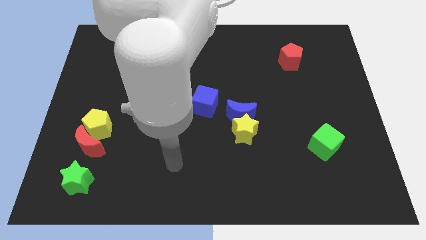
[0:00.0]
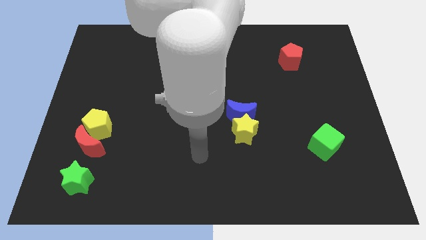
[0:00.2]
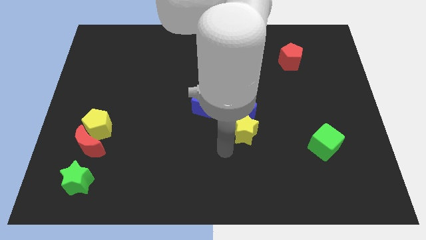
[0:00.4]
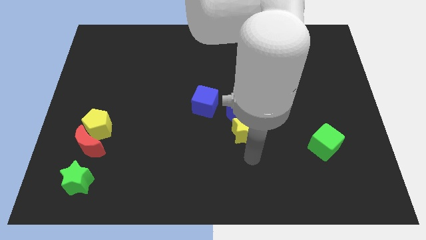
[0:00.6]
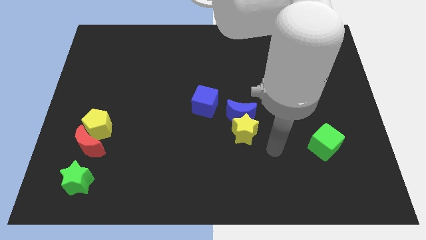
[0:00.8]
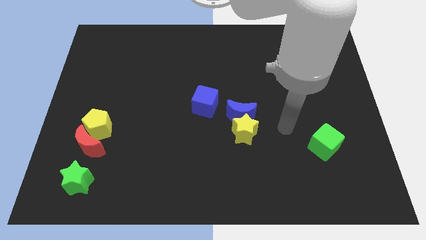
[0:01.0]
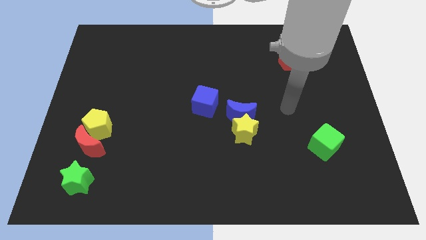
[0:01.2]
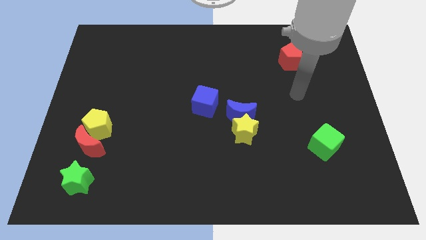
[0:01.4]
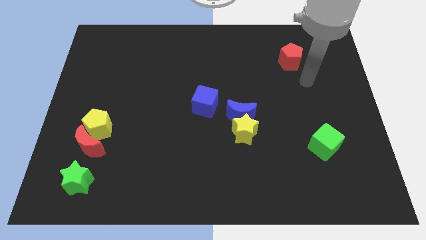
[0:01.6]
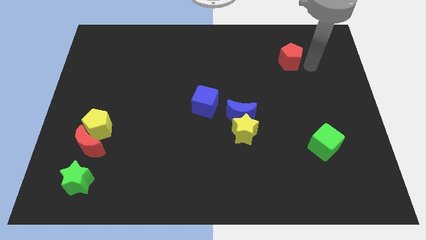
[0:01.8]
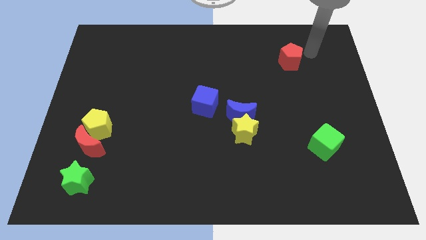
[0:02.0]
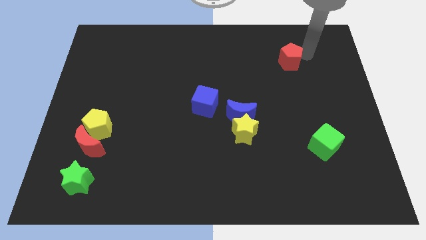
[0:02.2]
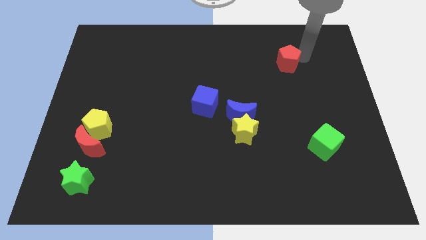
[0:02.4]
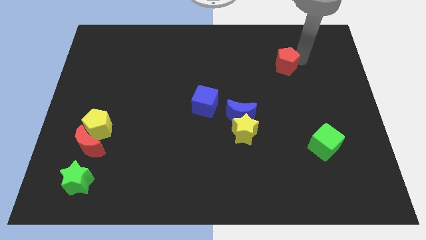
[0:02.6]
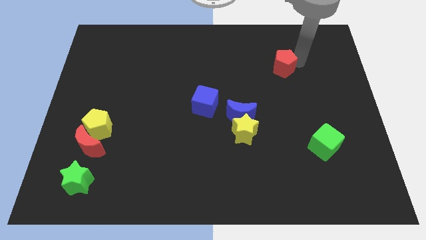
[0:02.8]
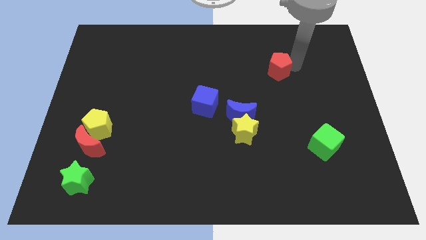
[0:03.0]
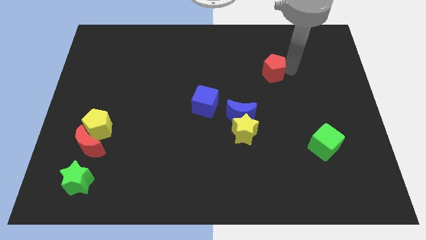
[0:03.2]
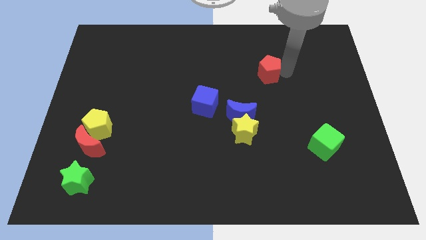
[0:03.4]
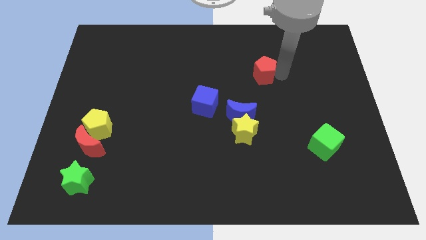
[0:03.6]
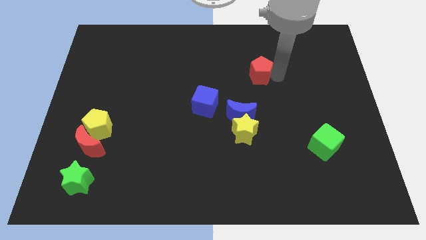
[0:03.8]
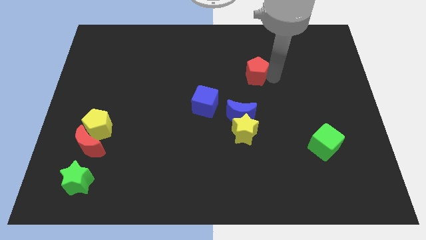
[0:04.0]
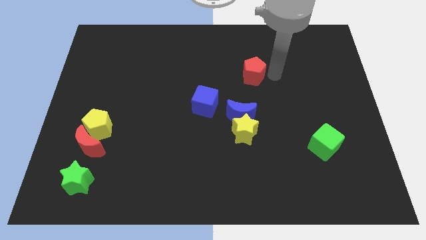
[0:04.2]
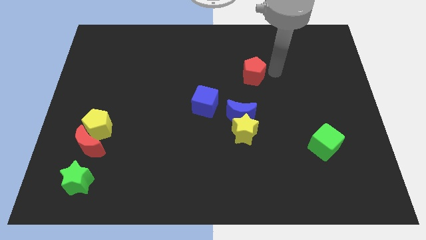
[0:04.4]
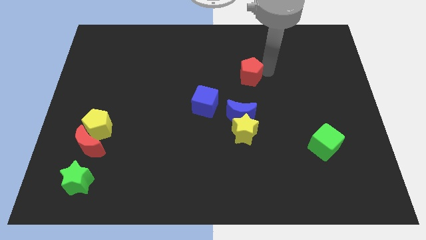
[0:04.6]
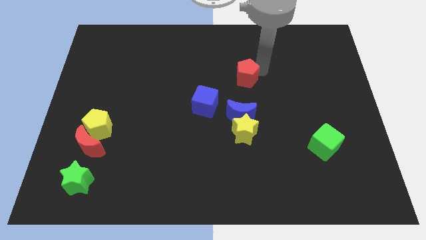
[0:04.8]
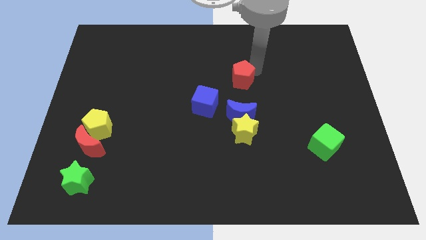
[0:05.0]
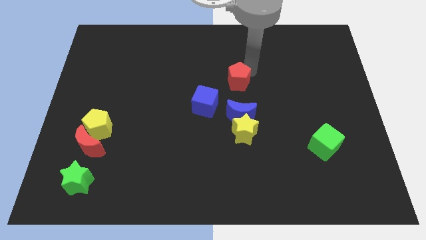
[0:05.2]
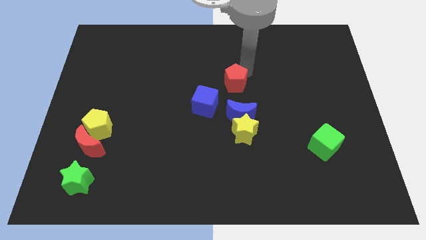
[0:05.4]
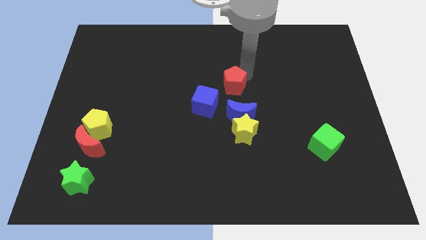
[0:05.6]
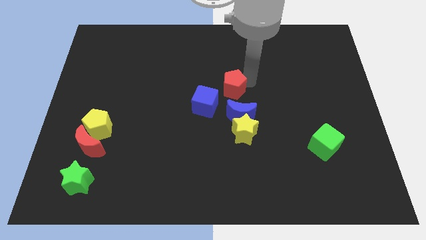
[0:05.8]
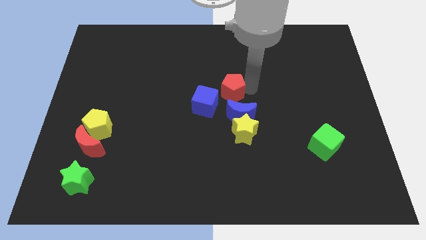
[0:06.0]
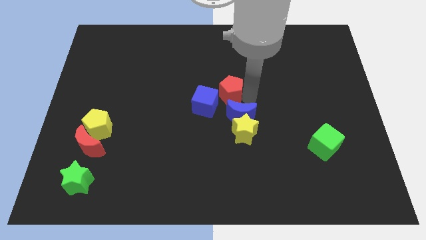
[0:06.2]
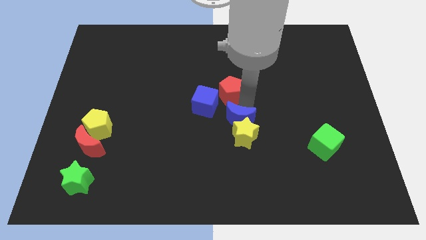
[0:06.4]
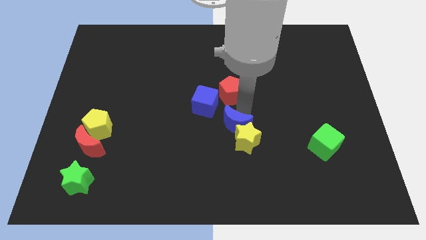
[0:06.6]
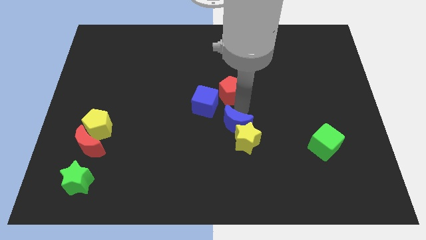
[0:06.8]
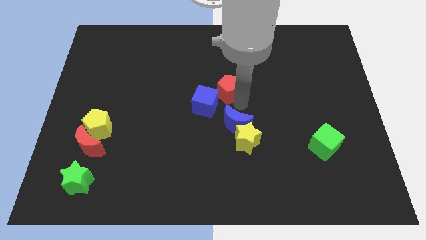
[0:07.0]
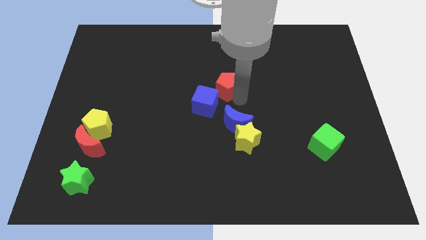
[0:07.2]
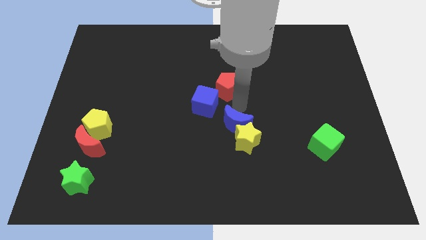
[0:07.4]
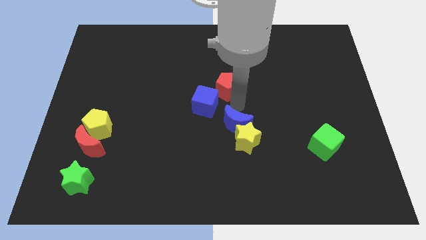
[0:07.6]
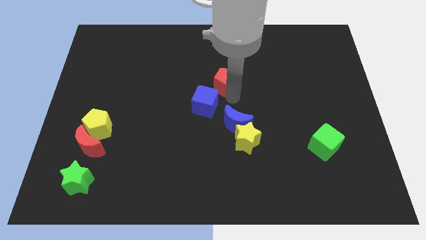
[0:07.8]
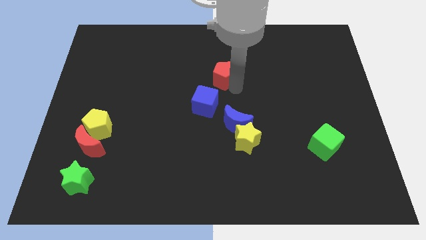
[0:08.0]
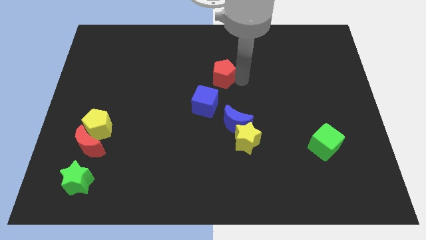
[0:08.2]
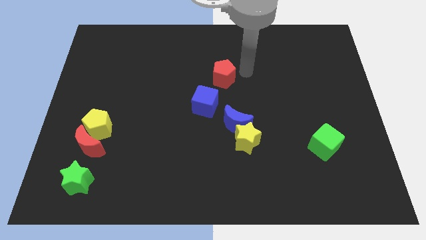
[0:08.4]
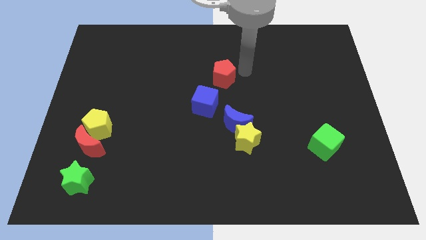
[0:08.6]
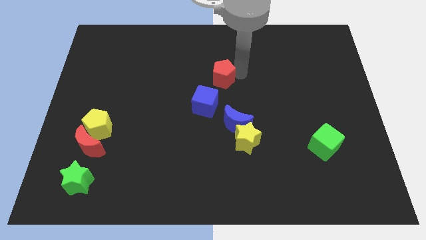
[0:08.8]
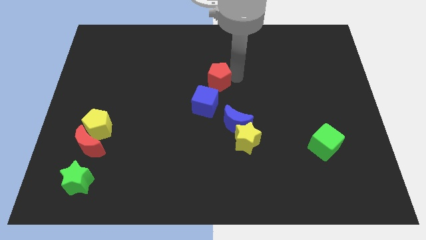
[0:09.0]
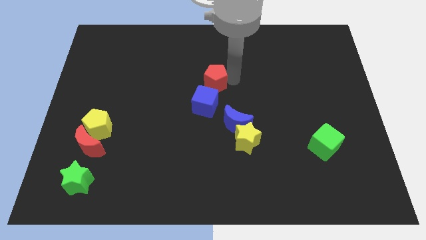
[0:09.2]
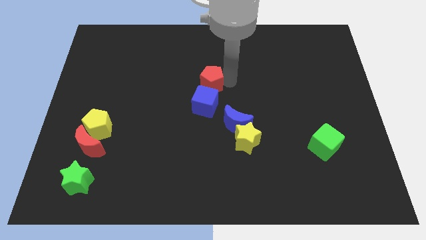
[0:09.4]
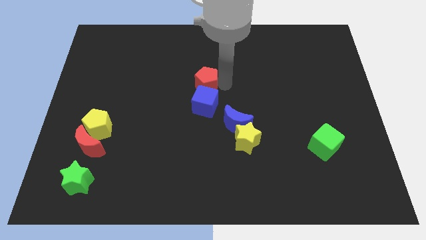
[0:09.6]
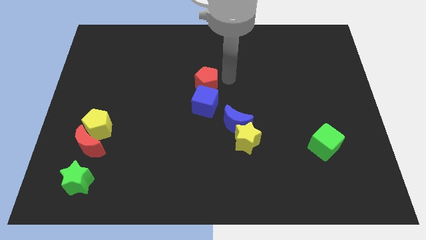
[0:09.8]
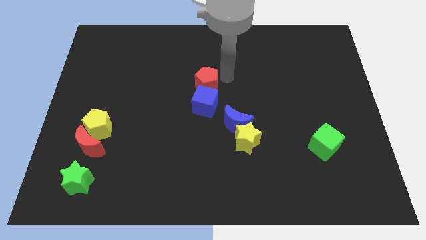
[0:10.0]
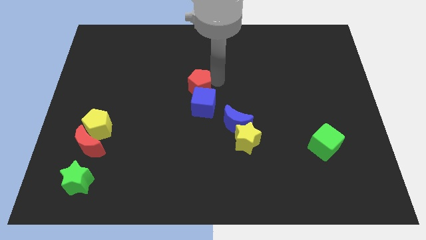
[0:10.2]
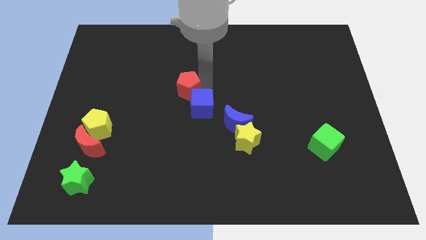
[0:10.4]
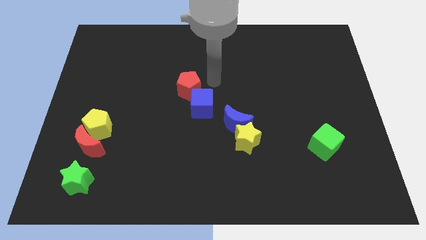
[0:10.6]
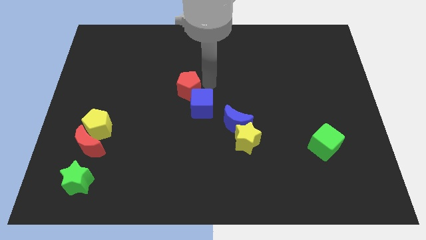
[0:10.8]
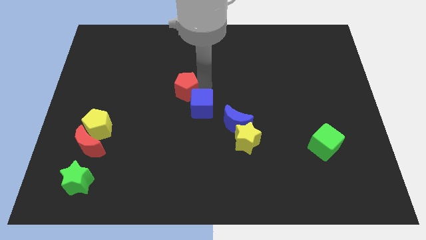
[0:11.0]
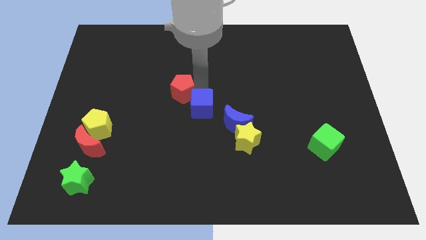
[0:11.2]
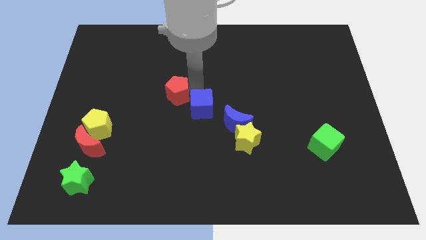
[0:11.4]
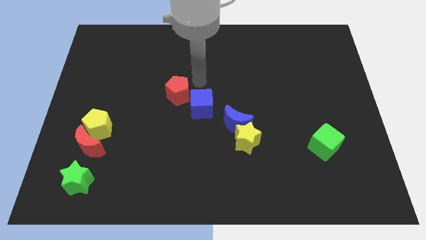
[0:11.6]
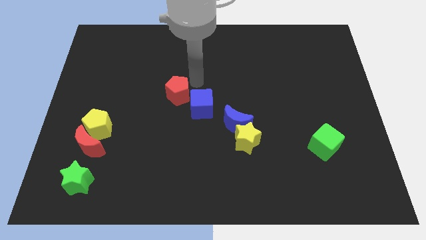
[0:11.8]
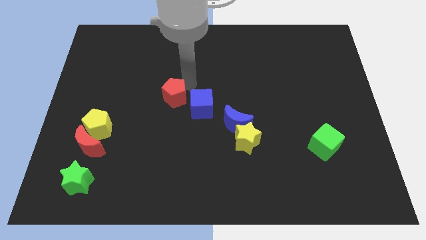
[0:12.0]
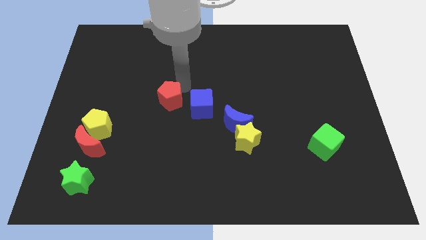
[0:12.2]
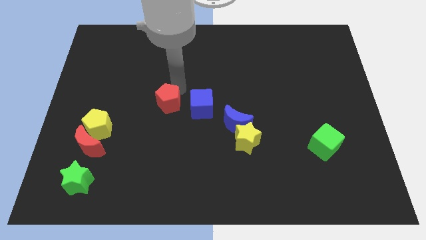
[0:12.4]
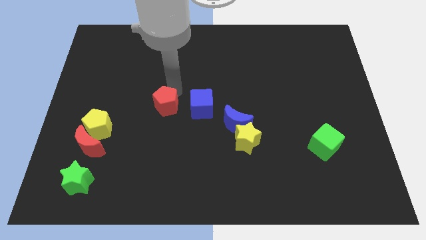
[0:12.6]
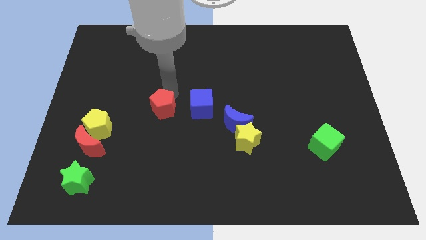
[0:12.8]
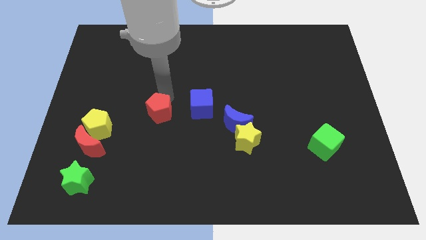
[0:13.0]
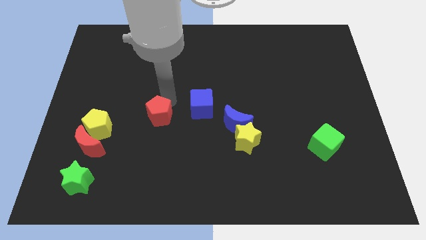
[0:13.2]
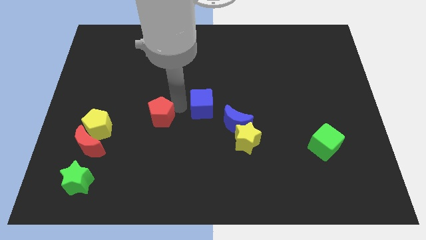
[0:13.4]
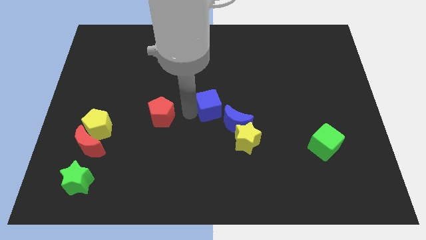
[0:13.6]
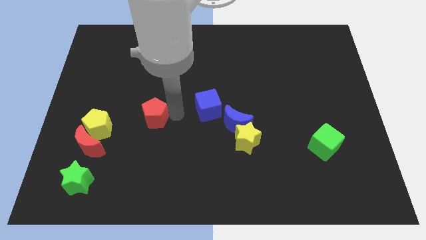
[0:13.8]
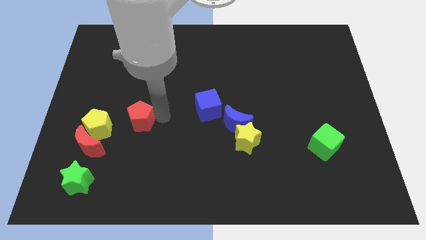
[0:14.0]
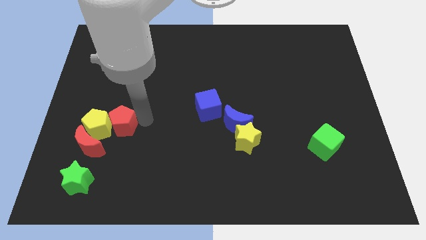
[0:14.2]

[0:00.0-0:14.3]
put the red pentagon to the yellow pentagon

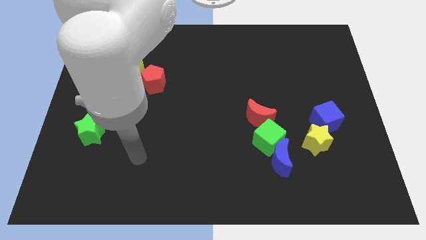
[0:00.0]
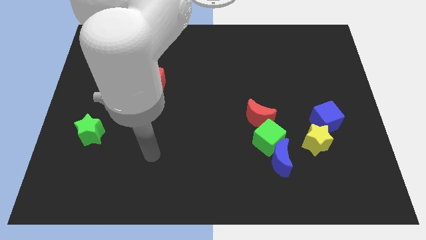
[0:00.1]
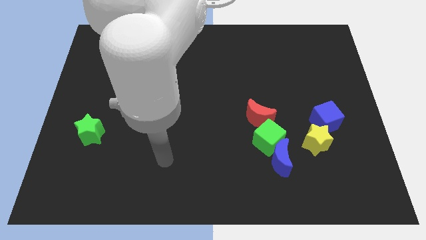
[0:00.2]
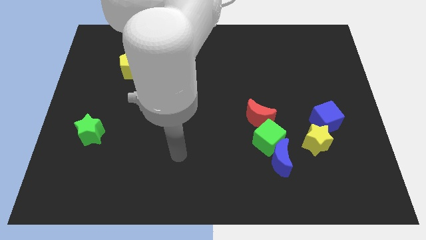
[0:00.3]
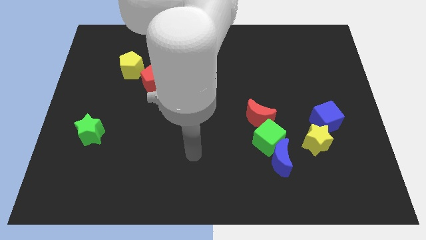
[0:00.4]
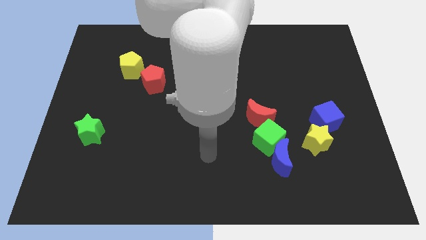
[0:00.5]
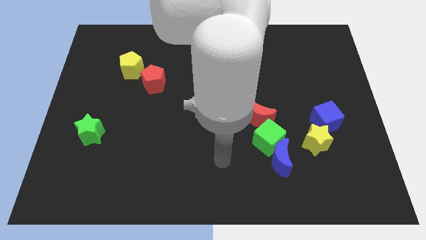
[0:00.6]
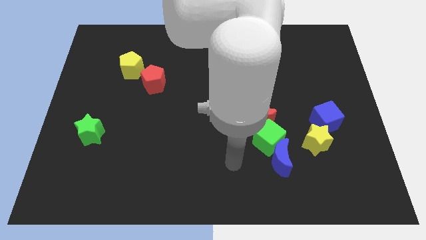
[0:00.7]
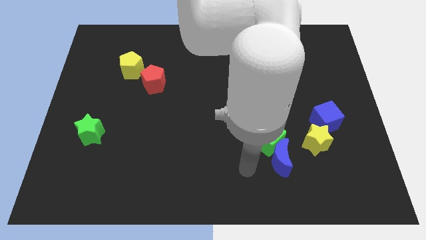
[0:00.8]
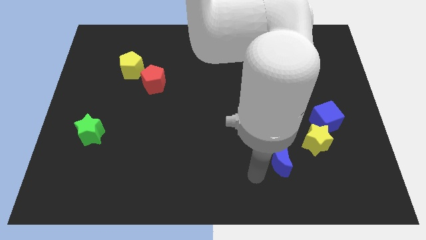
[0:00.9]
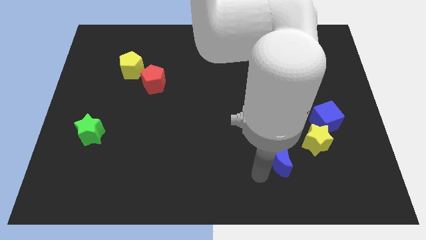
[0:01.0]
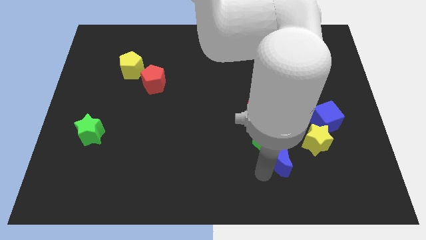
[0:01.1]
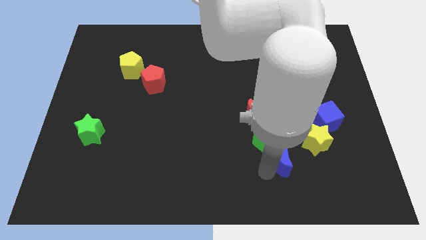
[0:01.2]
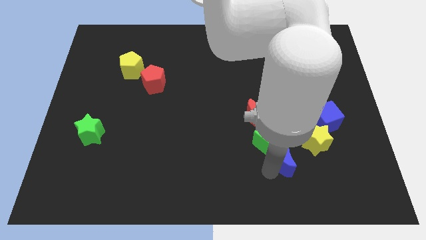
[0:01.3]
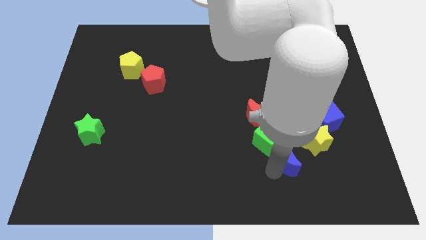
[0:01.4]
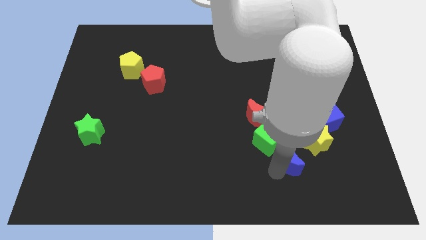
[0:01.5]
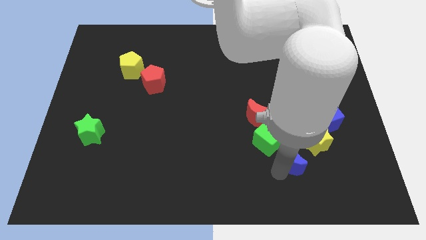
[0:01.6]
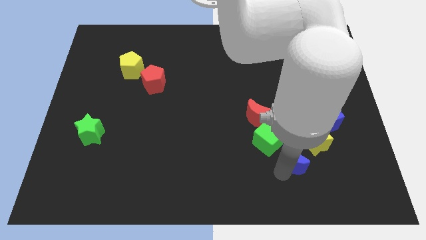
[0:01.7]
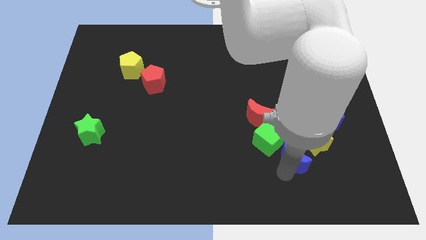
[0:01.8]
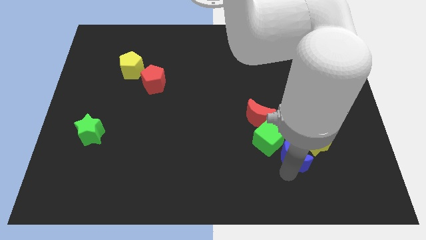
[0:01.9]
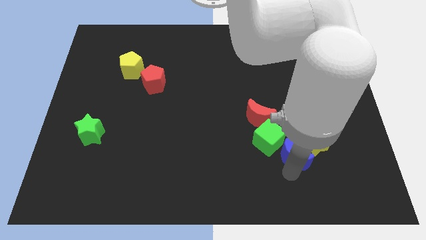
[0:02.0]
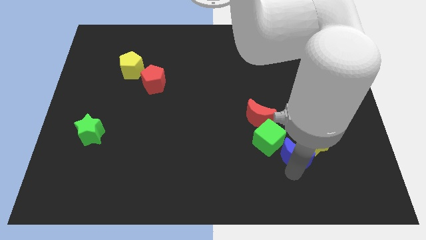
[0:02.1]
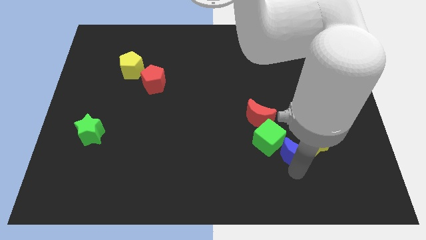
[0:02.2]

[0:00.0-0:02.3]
push the blue moon close to the yellow star
